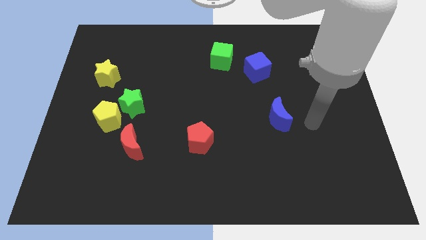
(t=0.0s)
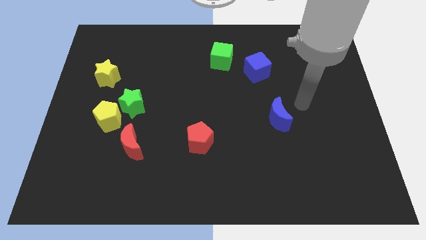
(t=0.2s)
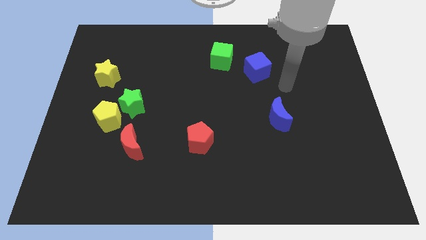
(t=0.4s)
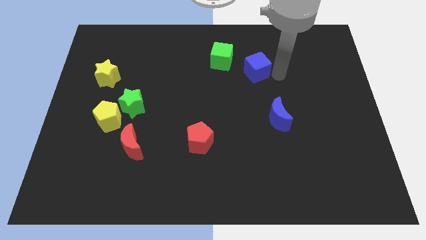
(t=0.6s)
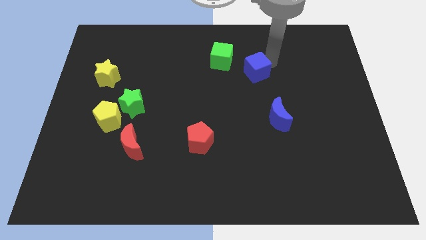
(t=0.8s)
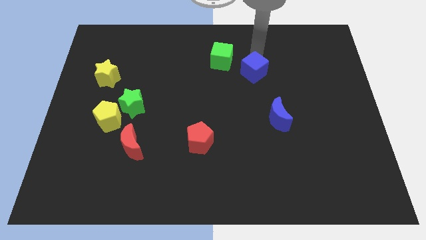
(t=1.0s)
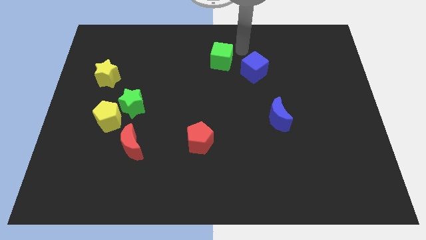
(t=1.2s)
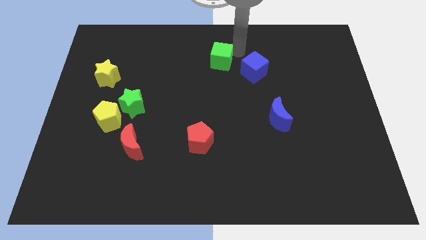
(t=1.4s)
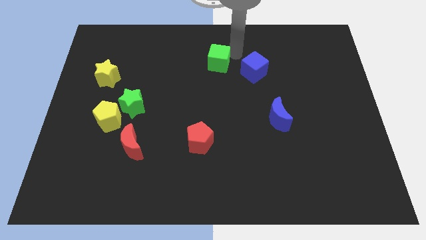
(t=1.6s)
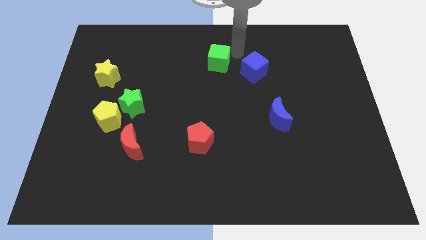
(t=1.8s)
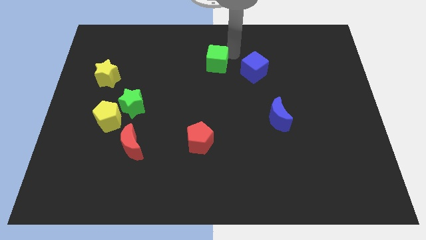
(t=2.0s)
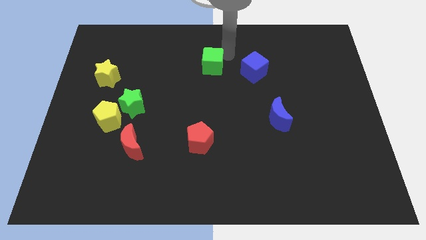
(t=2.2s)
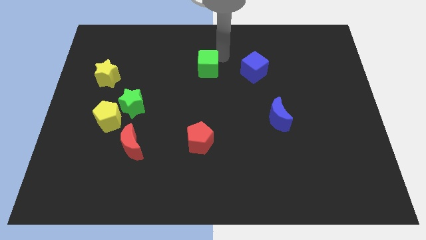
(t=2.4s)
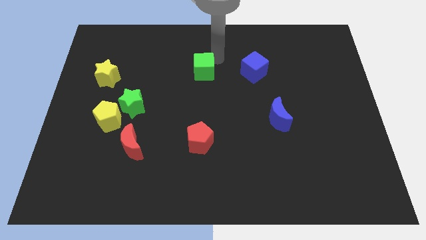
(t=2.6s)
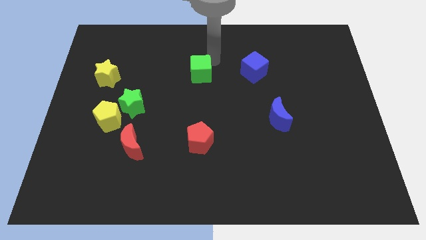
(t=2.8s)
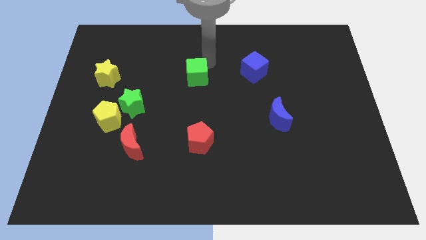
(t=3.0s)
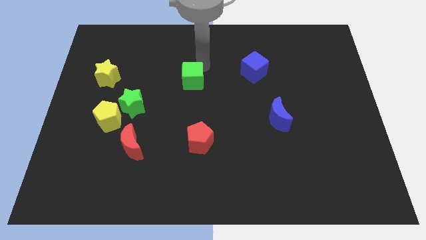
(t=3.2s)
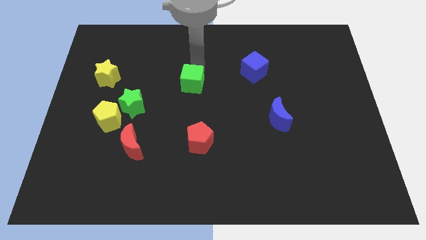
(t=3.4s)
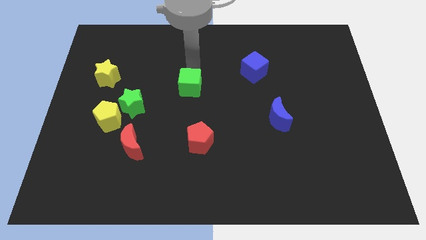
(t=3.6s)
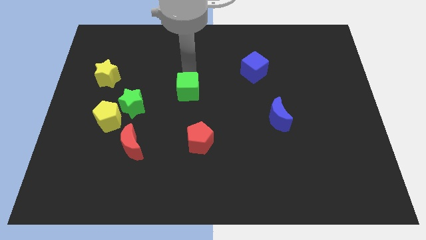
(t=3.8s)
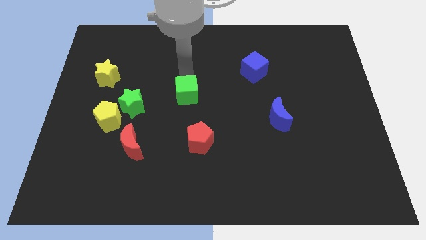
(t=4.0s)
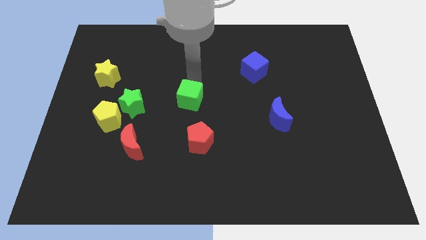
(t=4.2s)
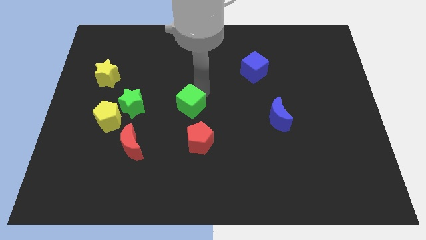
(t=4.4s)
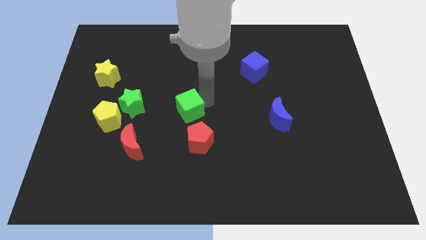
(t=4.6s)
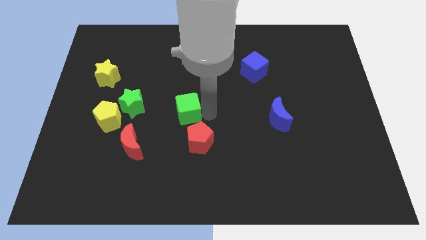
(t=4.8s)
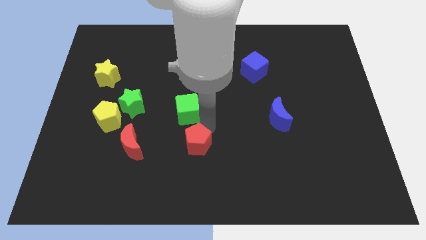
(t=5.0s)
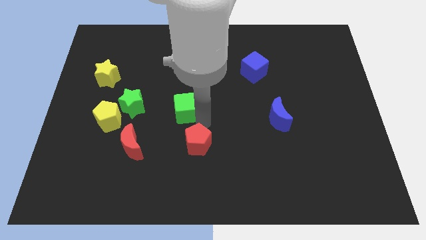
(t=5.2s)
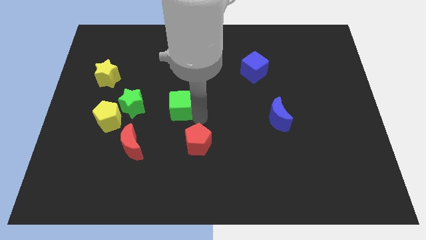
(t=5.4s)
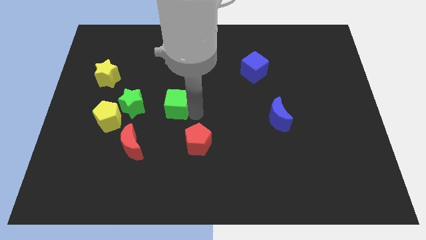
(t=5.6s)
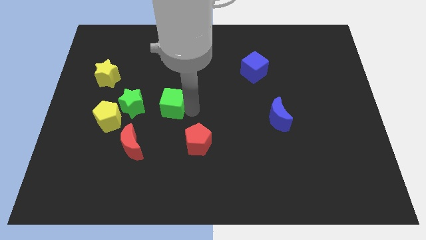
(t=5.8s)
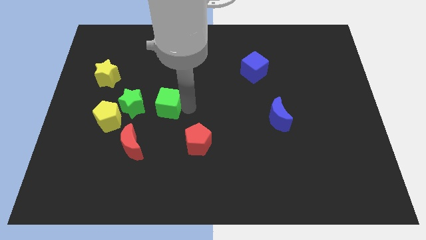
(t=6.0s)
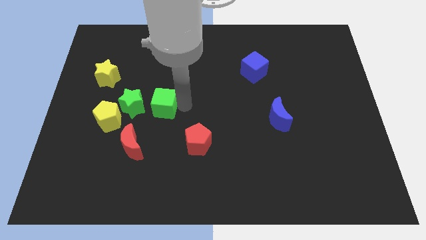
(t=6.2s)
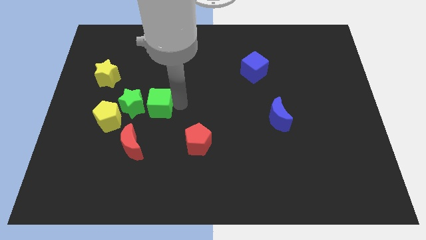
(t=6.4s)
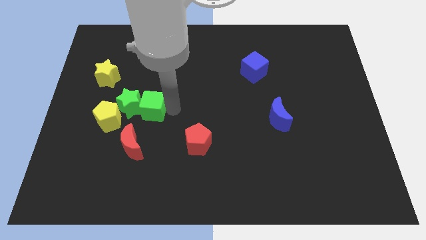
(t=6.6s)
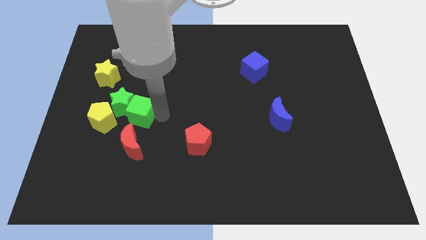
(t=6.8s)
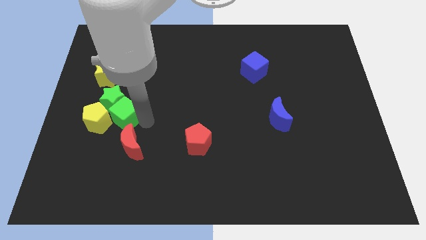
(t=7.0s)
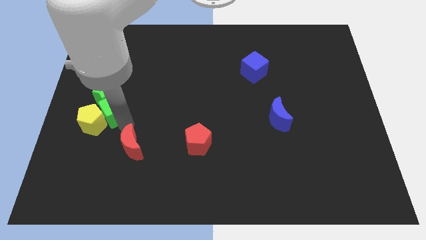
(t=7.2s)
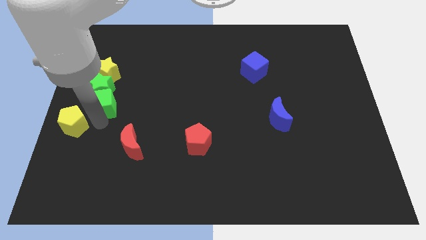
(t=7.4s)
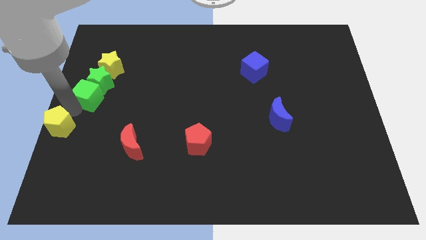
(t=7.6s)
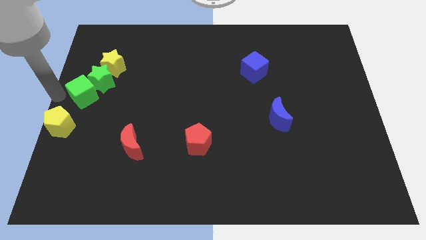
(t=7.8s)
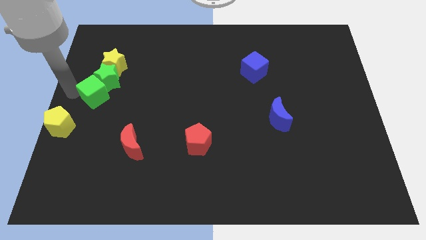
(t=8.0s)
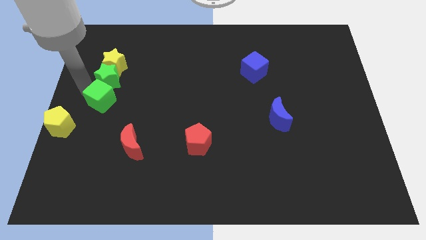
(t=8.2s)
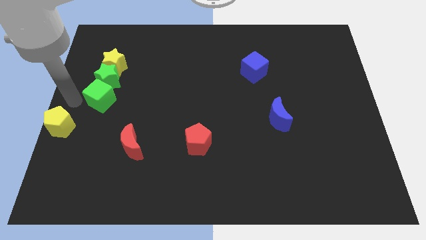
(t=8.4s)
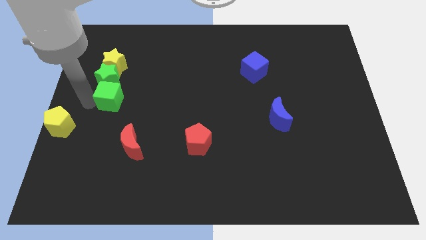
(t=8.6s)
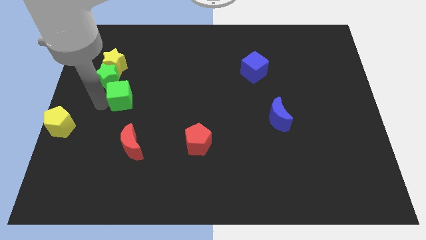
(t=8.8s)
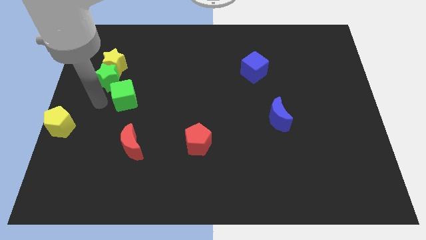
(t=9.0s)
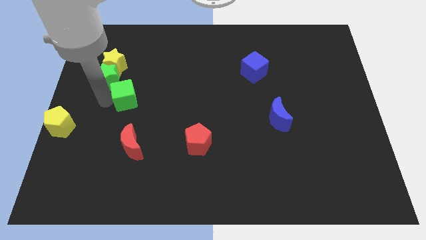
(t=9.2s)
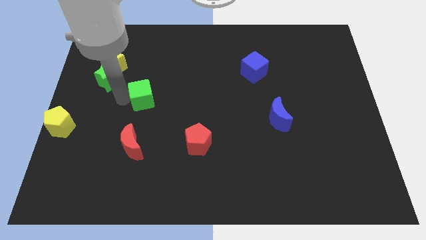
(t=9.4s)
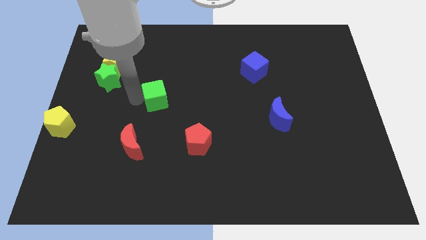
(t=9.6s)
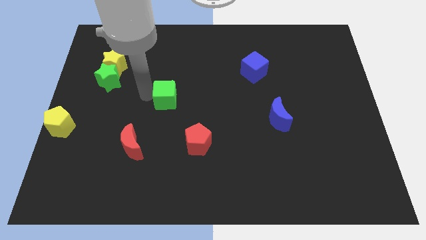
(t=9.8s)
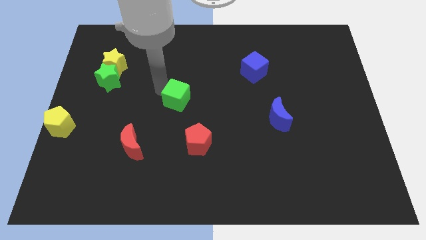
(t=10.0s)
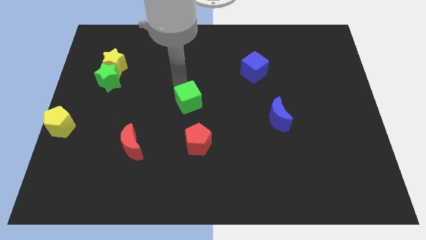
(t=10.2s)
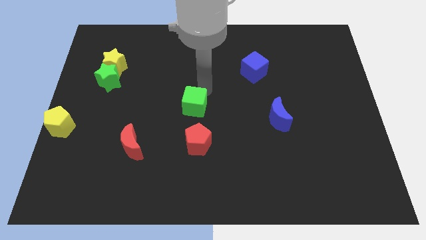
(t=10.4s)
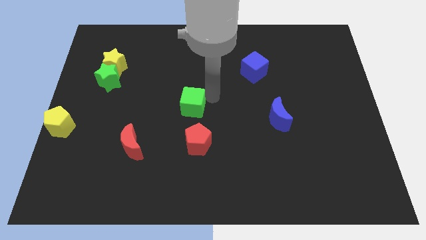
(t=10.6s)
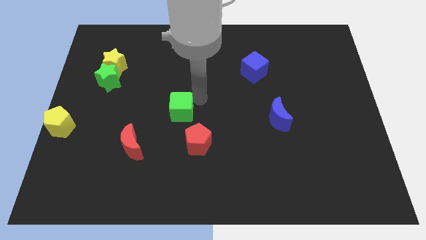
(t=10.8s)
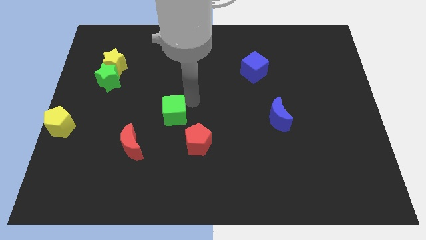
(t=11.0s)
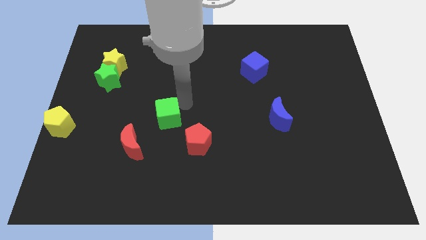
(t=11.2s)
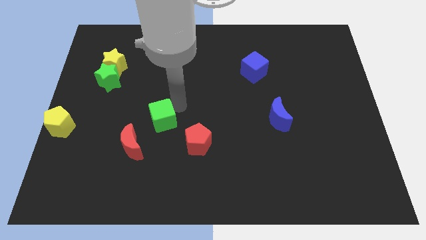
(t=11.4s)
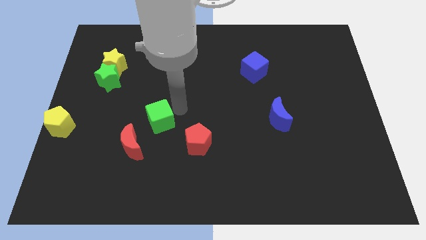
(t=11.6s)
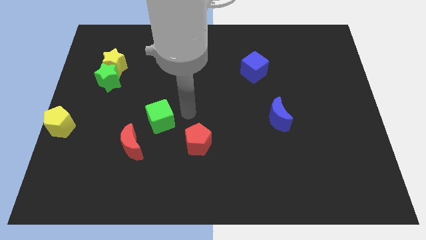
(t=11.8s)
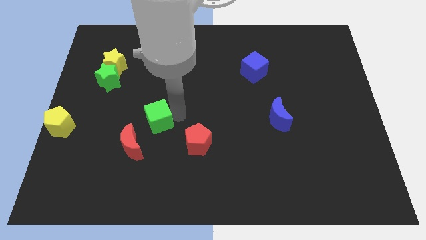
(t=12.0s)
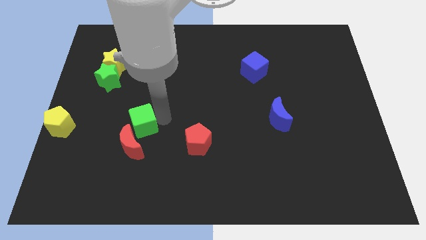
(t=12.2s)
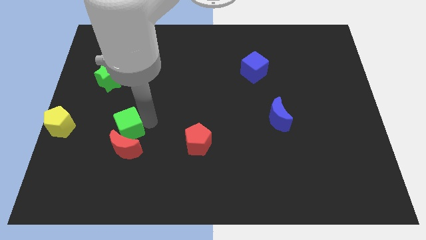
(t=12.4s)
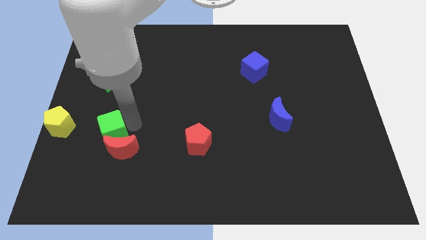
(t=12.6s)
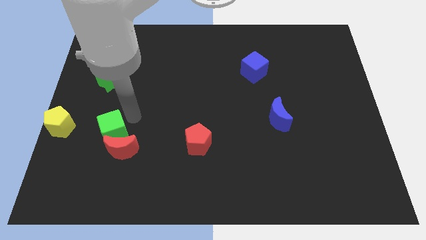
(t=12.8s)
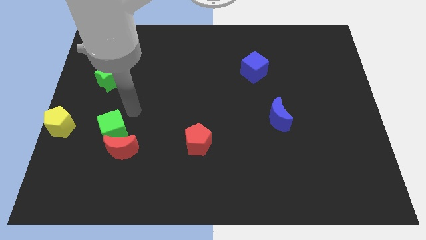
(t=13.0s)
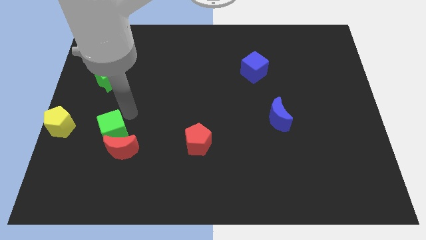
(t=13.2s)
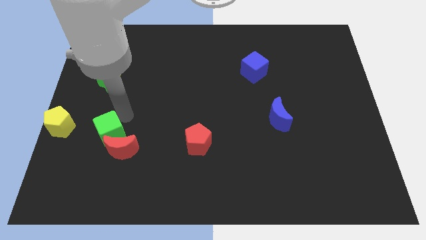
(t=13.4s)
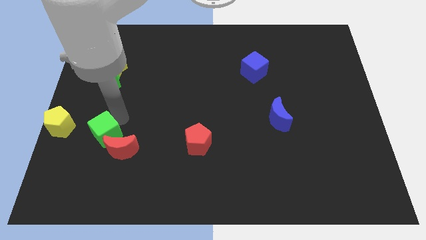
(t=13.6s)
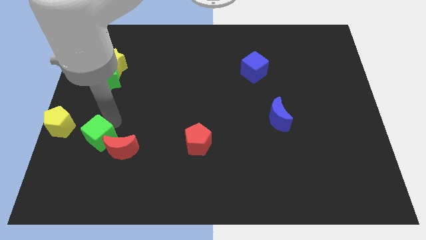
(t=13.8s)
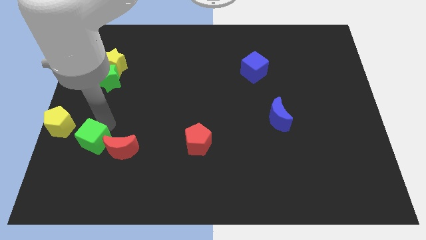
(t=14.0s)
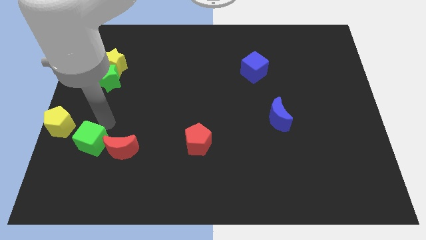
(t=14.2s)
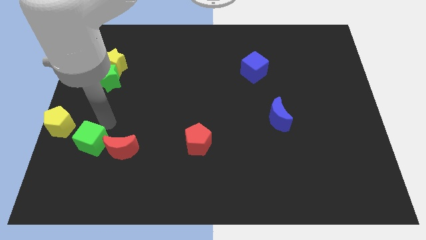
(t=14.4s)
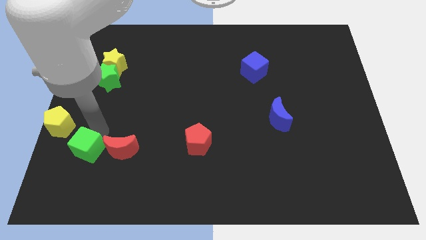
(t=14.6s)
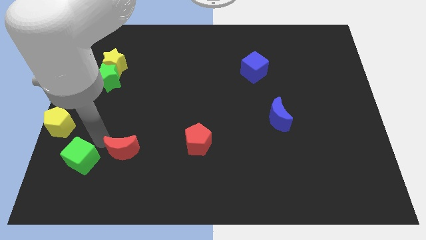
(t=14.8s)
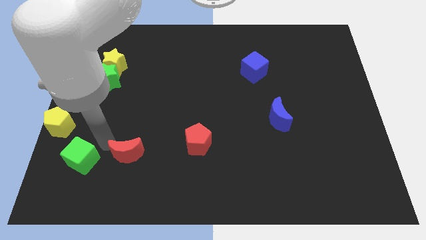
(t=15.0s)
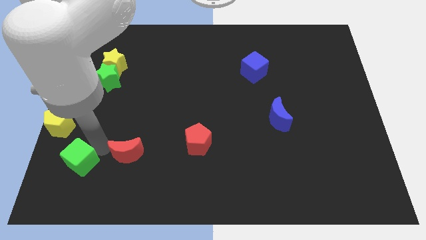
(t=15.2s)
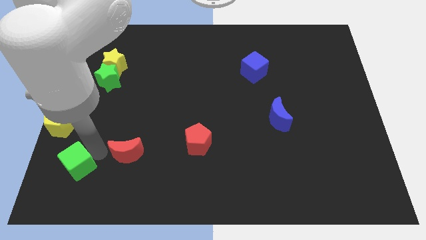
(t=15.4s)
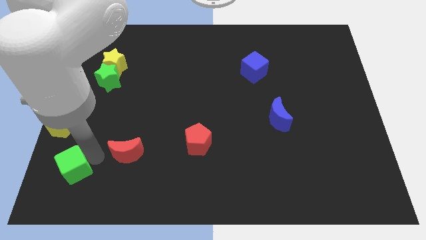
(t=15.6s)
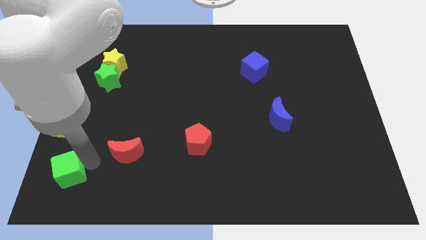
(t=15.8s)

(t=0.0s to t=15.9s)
slide the green cube to the bottom left
